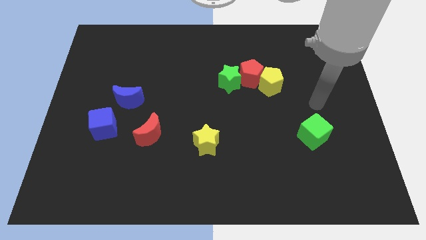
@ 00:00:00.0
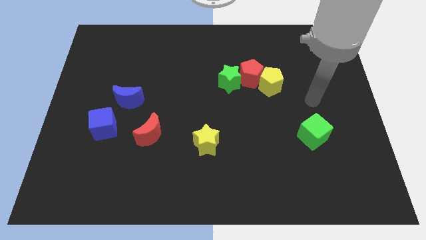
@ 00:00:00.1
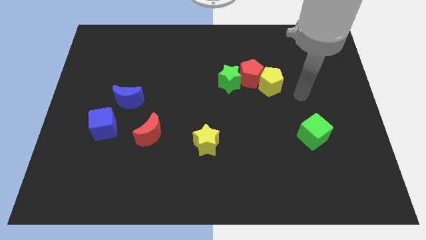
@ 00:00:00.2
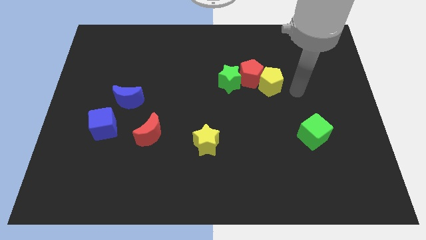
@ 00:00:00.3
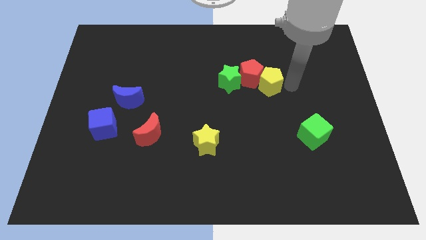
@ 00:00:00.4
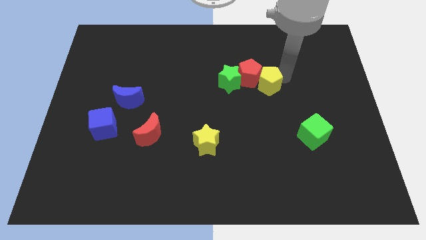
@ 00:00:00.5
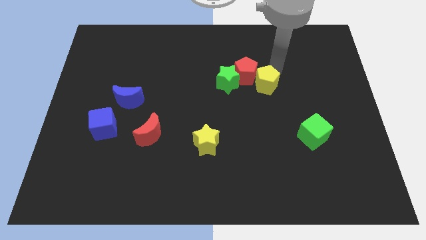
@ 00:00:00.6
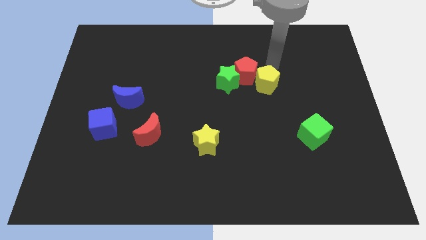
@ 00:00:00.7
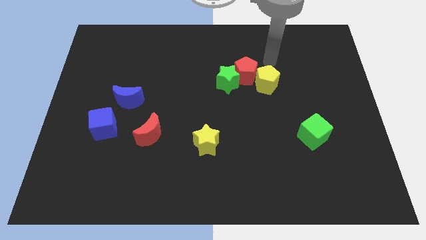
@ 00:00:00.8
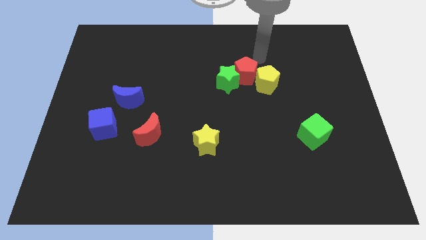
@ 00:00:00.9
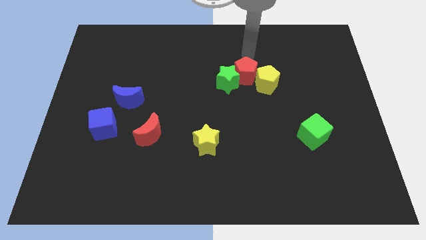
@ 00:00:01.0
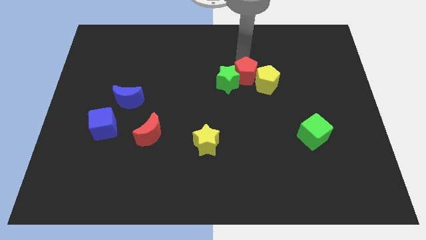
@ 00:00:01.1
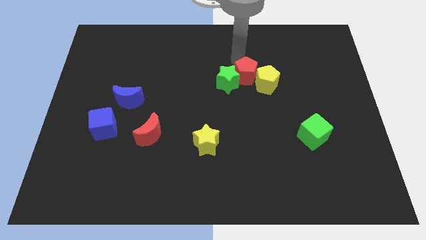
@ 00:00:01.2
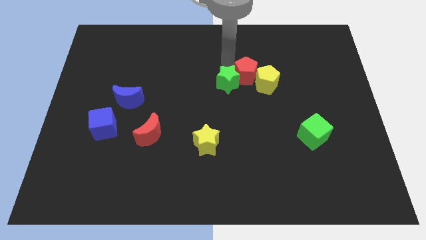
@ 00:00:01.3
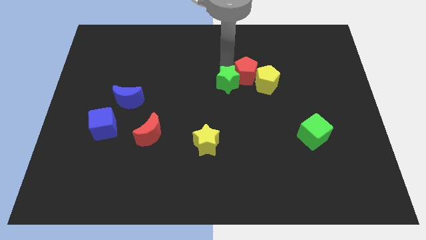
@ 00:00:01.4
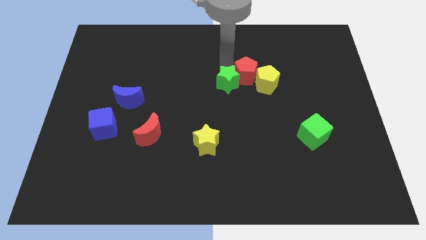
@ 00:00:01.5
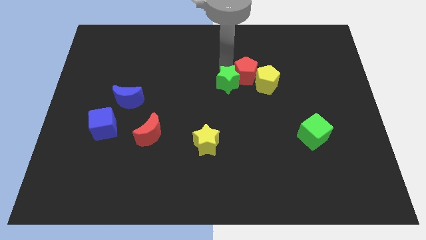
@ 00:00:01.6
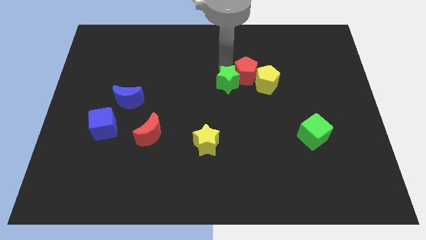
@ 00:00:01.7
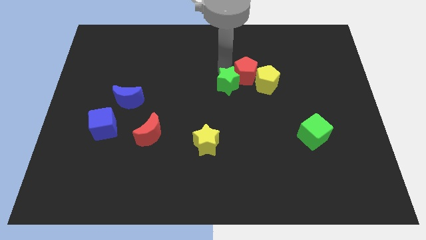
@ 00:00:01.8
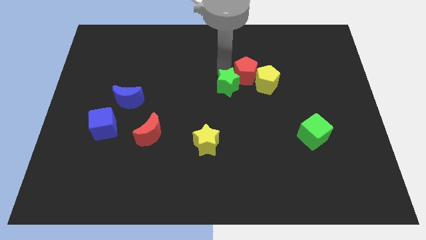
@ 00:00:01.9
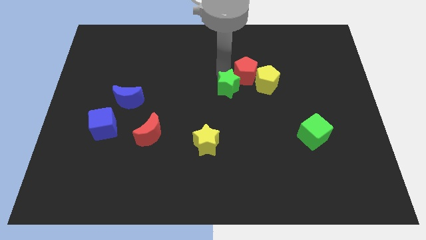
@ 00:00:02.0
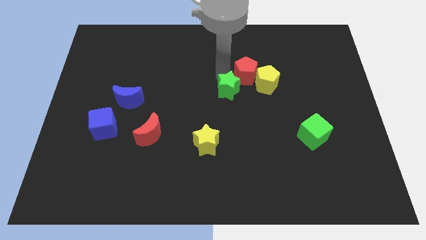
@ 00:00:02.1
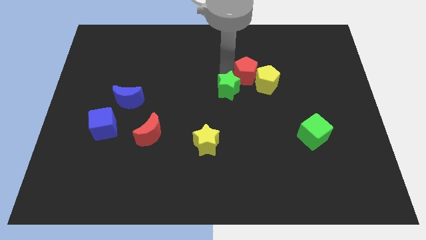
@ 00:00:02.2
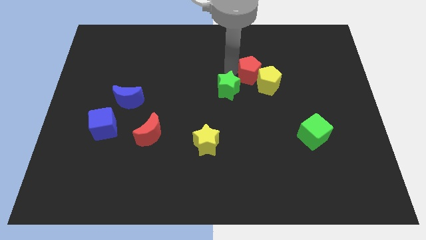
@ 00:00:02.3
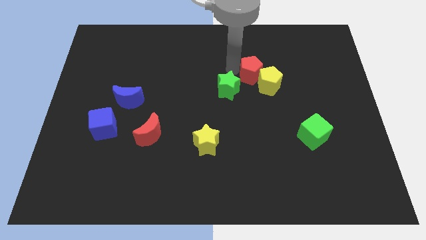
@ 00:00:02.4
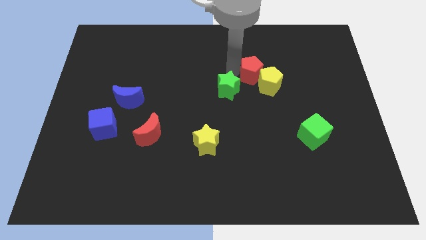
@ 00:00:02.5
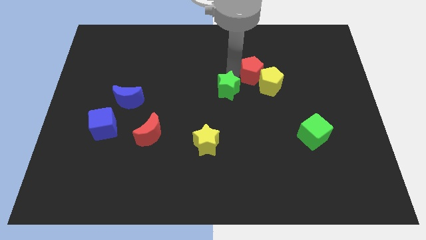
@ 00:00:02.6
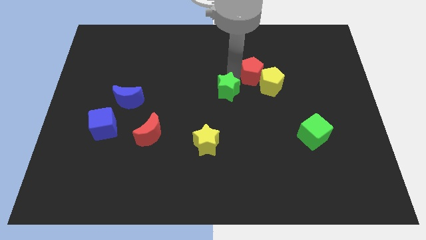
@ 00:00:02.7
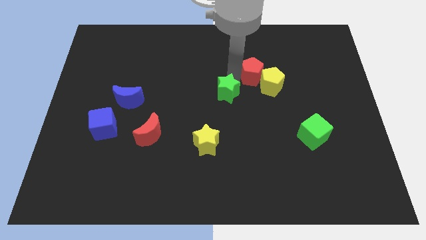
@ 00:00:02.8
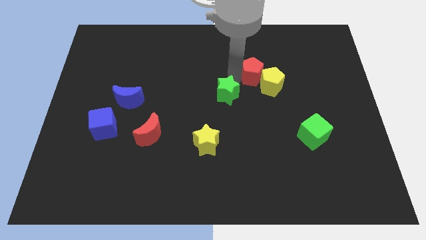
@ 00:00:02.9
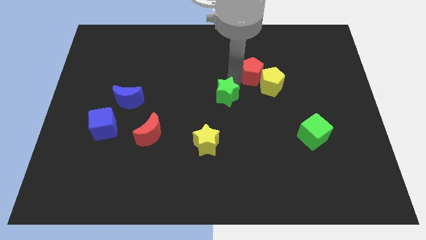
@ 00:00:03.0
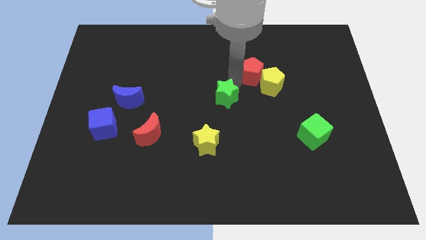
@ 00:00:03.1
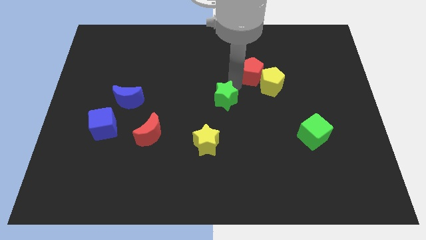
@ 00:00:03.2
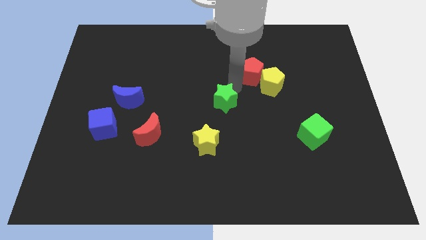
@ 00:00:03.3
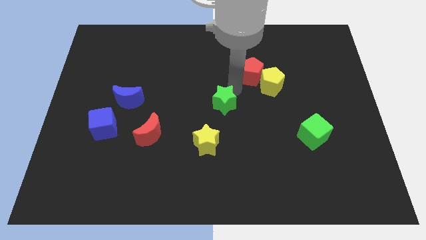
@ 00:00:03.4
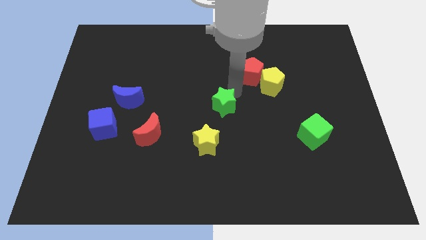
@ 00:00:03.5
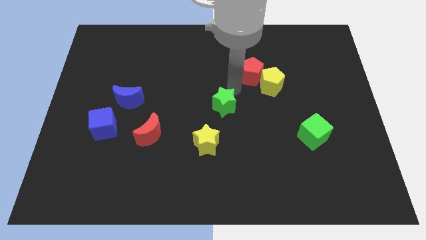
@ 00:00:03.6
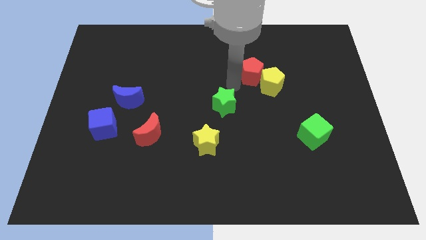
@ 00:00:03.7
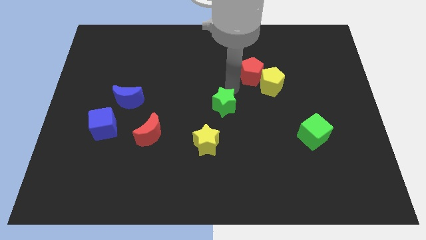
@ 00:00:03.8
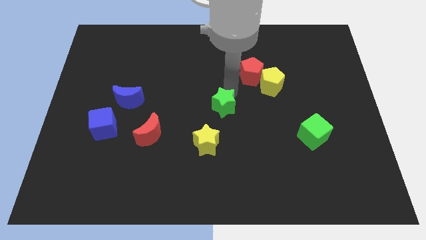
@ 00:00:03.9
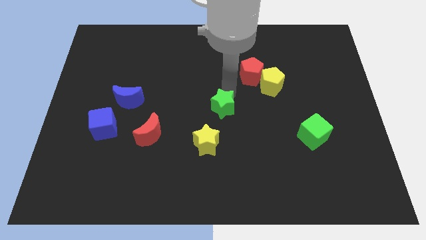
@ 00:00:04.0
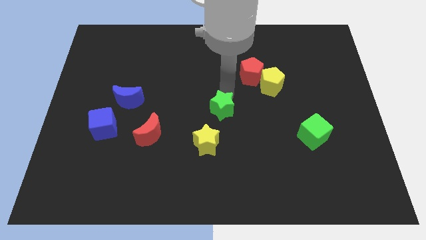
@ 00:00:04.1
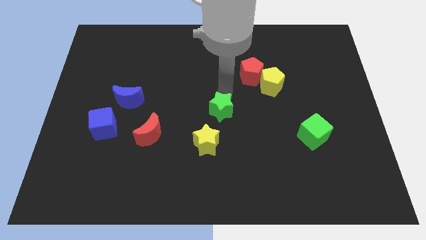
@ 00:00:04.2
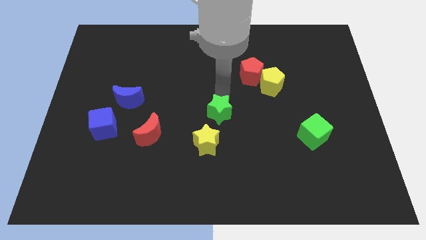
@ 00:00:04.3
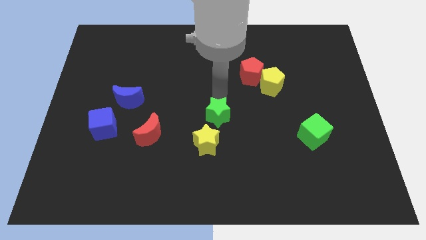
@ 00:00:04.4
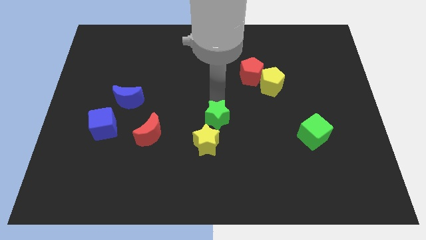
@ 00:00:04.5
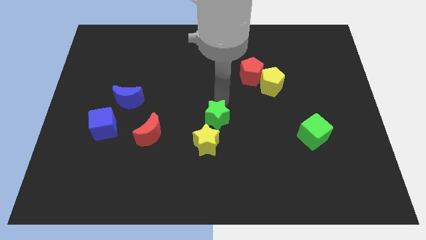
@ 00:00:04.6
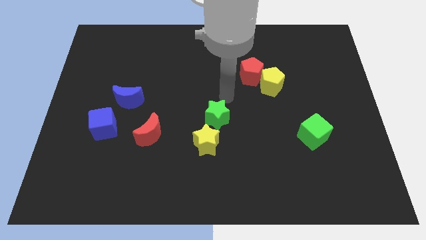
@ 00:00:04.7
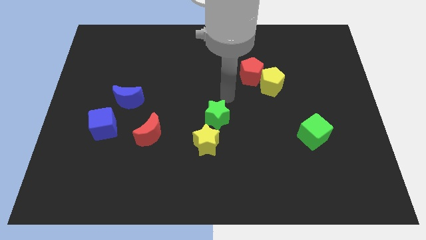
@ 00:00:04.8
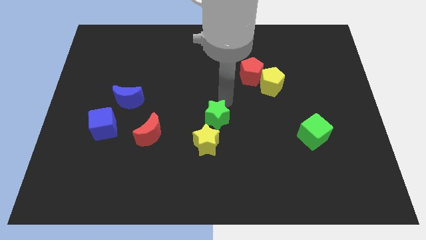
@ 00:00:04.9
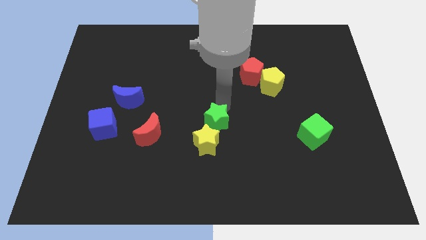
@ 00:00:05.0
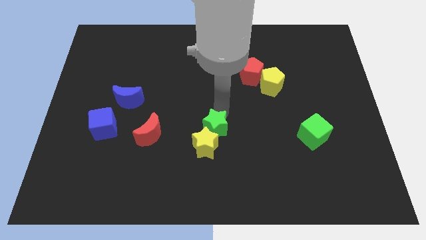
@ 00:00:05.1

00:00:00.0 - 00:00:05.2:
push the green star next to the yellow star

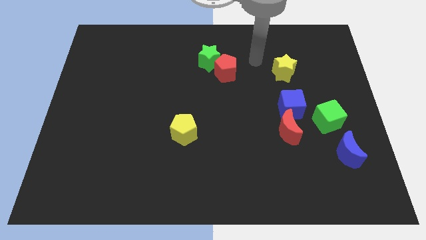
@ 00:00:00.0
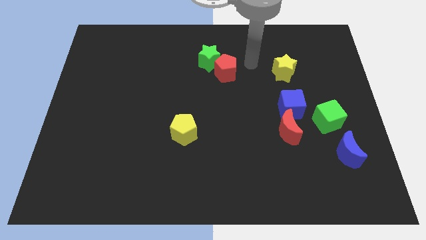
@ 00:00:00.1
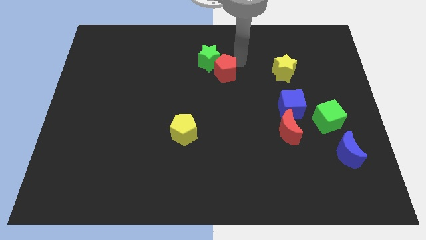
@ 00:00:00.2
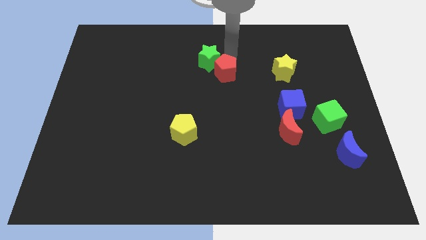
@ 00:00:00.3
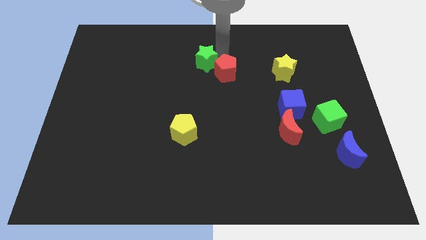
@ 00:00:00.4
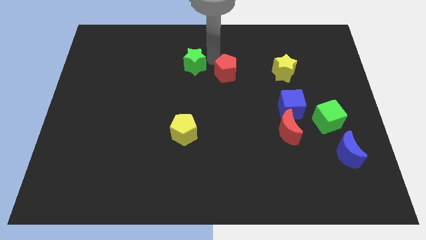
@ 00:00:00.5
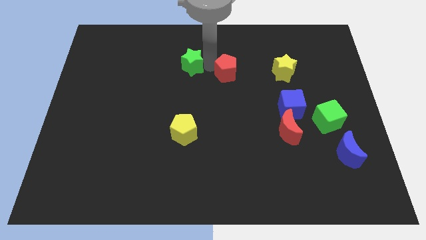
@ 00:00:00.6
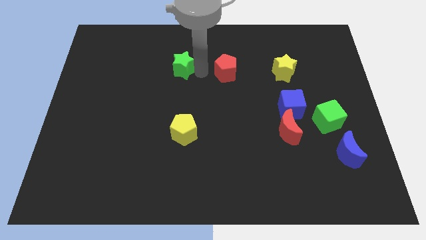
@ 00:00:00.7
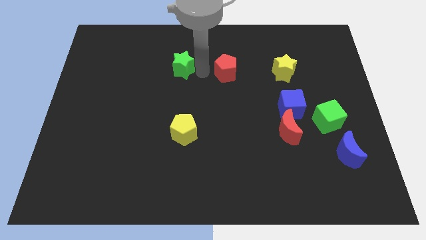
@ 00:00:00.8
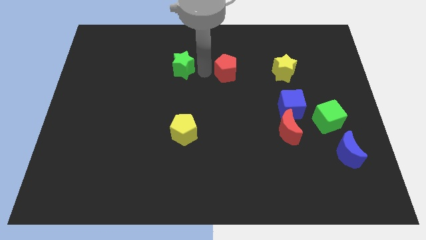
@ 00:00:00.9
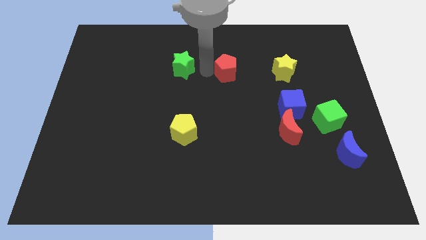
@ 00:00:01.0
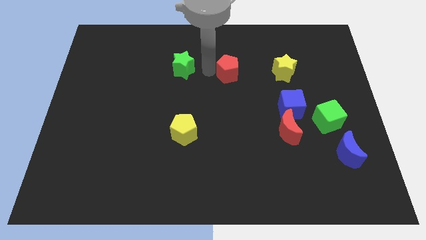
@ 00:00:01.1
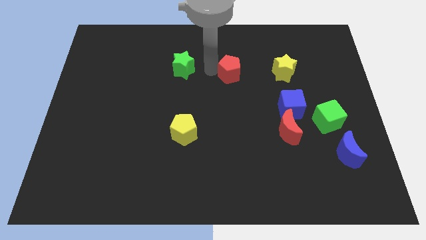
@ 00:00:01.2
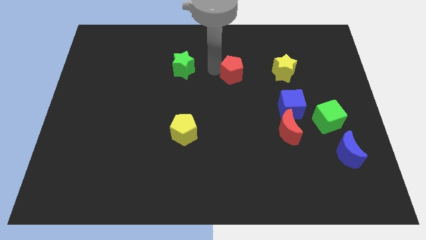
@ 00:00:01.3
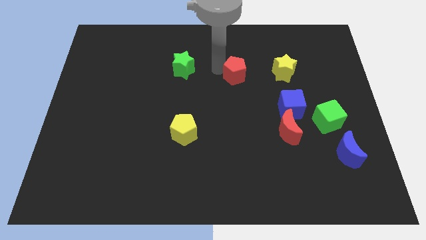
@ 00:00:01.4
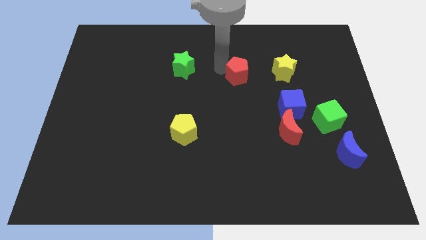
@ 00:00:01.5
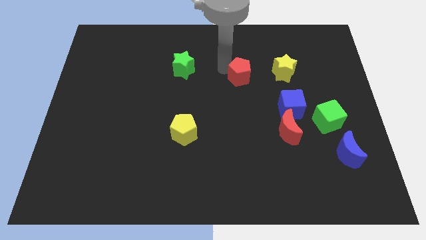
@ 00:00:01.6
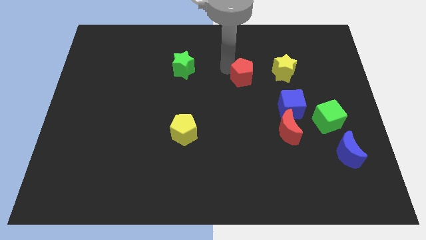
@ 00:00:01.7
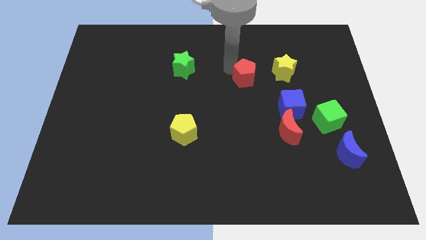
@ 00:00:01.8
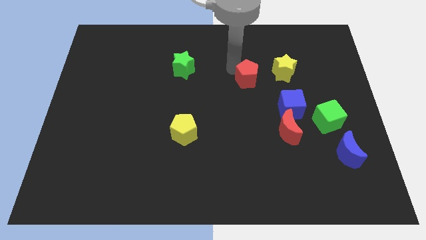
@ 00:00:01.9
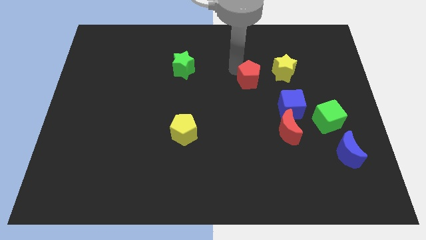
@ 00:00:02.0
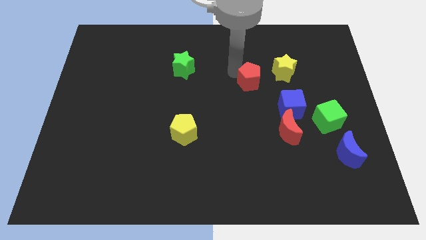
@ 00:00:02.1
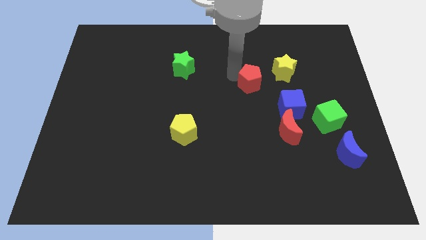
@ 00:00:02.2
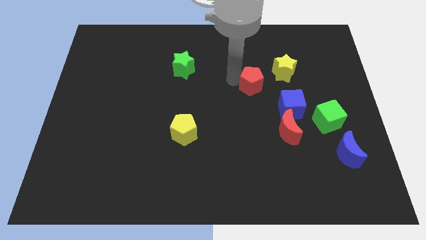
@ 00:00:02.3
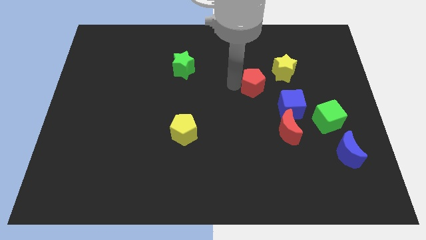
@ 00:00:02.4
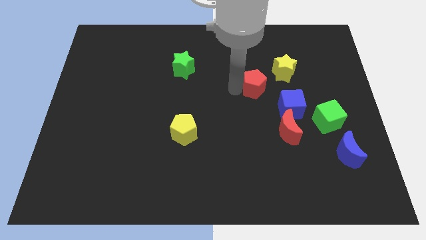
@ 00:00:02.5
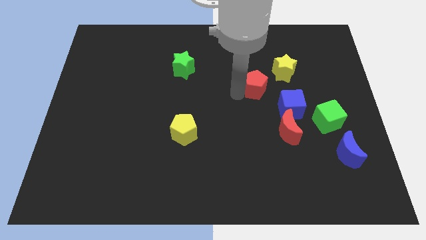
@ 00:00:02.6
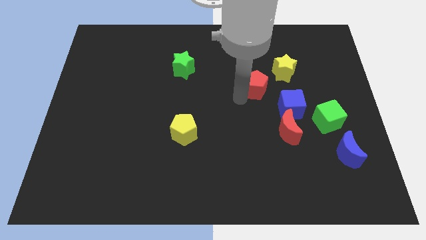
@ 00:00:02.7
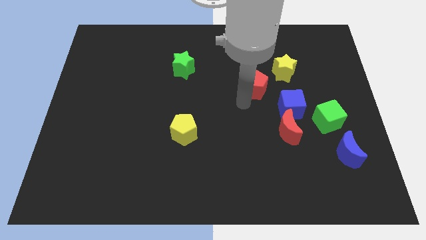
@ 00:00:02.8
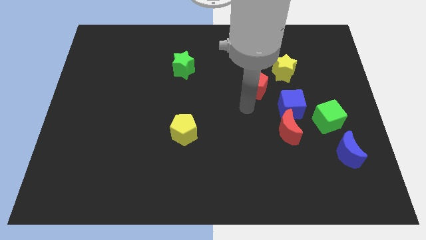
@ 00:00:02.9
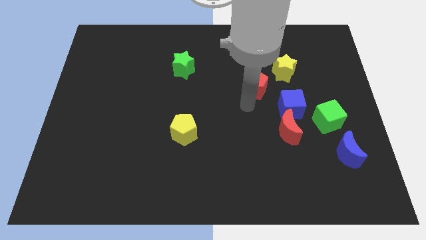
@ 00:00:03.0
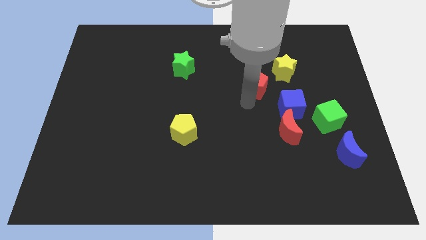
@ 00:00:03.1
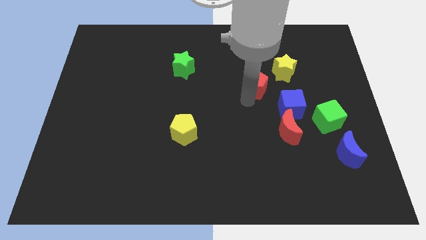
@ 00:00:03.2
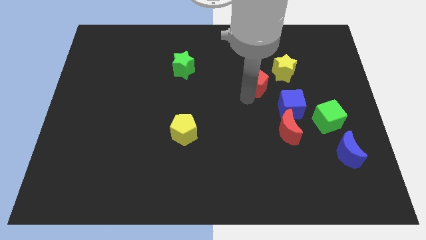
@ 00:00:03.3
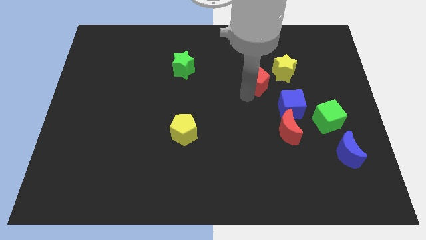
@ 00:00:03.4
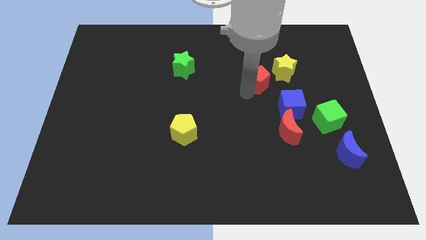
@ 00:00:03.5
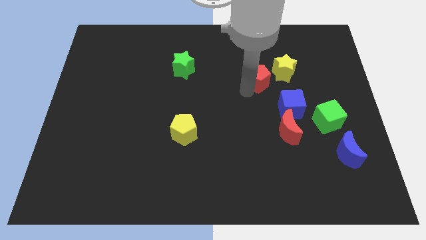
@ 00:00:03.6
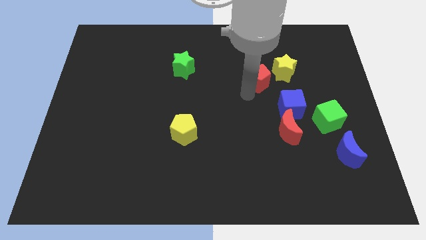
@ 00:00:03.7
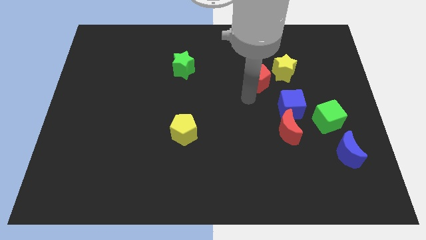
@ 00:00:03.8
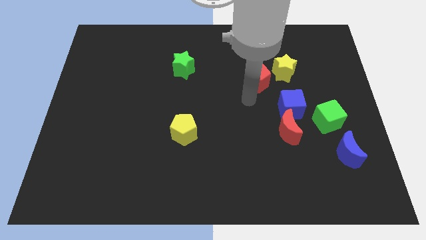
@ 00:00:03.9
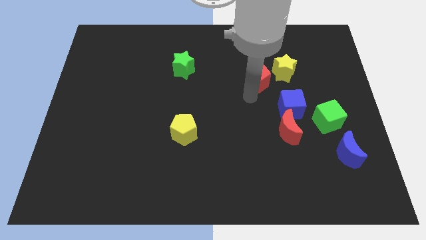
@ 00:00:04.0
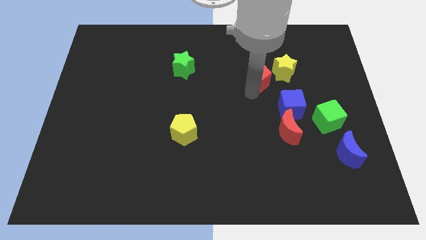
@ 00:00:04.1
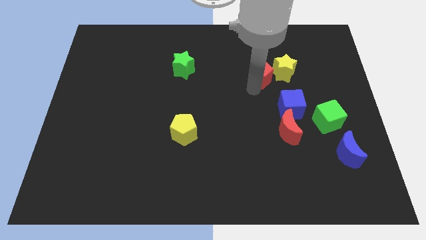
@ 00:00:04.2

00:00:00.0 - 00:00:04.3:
slide the red pentagon next to the yellow star
